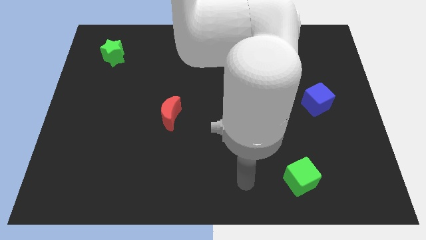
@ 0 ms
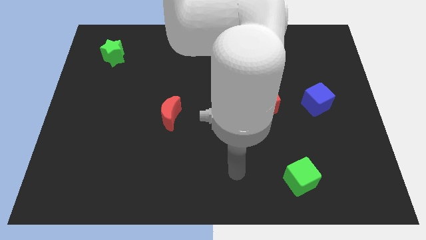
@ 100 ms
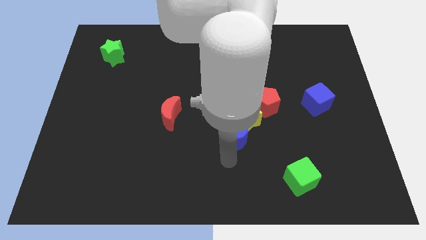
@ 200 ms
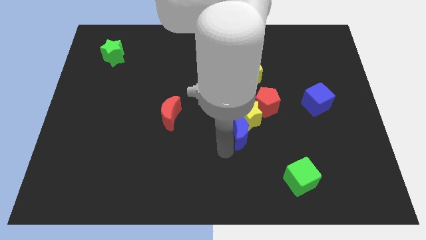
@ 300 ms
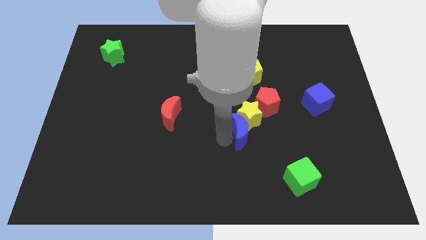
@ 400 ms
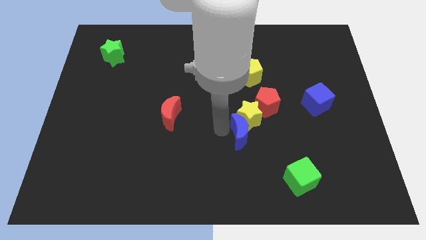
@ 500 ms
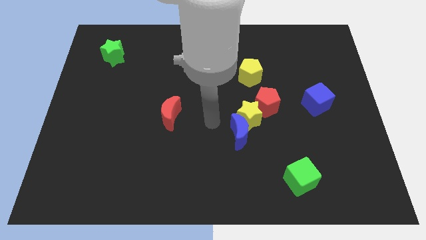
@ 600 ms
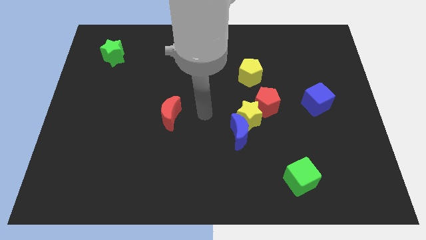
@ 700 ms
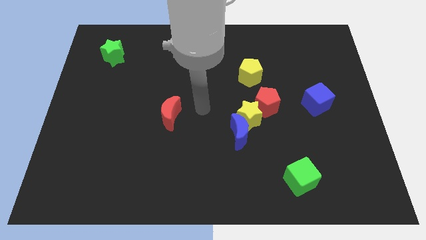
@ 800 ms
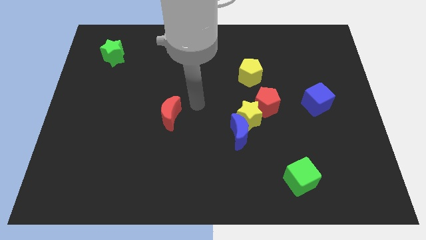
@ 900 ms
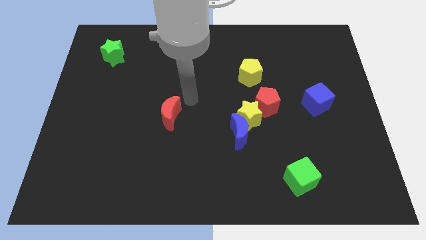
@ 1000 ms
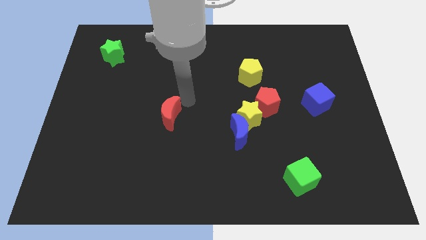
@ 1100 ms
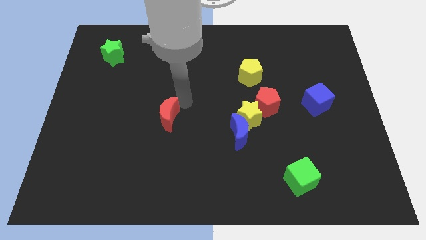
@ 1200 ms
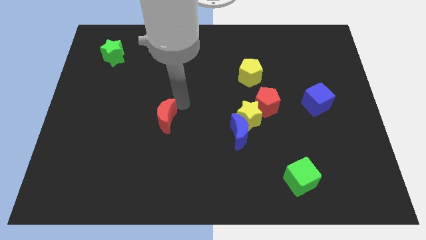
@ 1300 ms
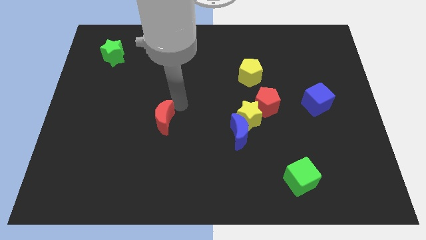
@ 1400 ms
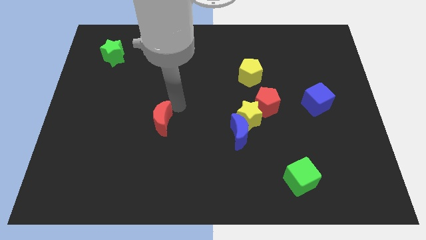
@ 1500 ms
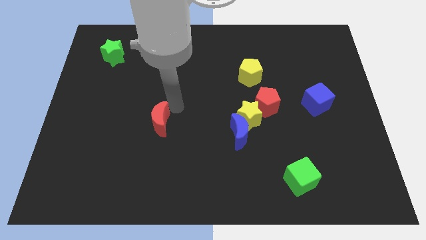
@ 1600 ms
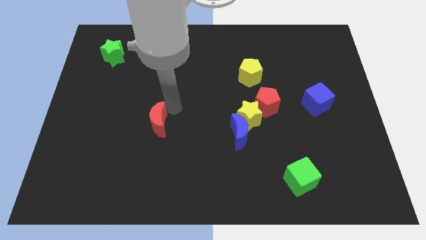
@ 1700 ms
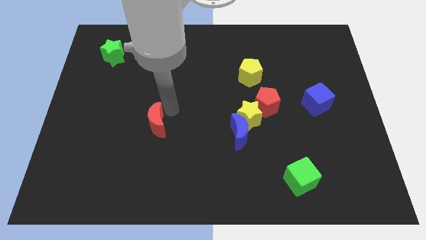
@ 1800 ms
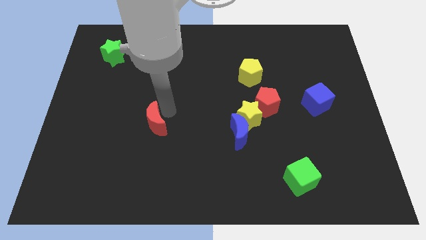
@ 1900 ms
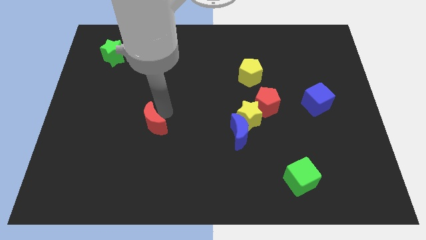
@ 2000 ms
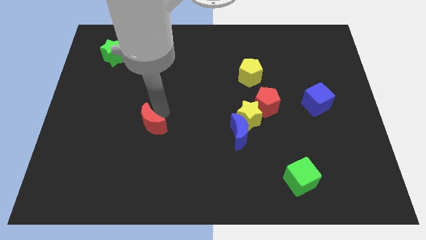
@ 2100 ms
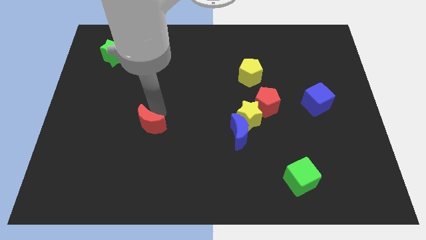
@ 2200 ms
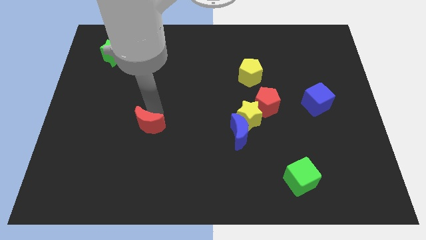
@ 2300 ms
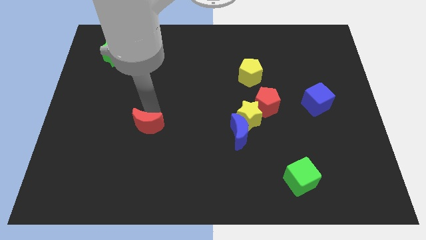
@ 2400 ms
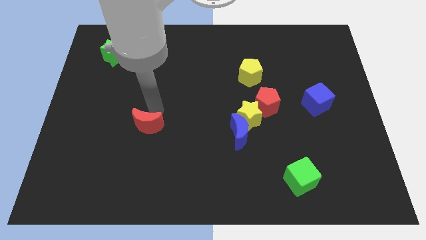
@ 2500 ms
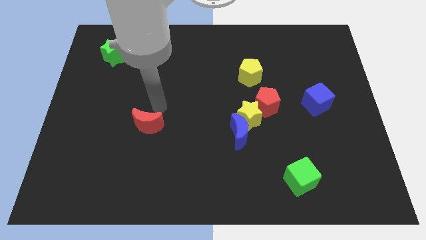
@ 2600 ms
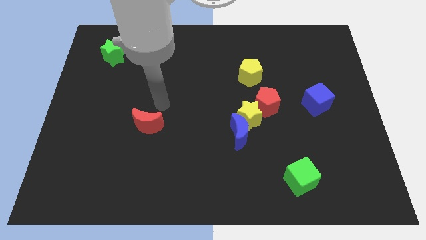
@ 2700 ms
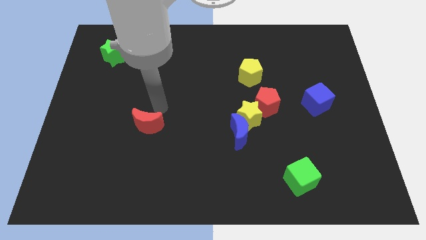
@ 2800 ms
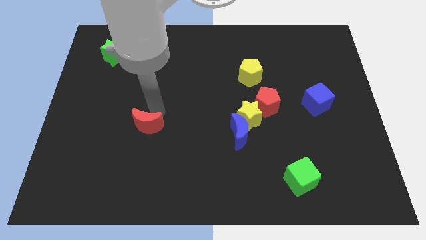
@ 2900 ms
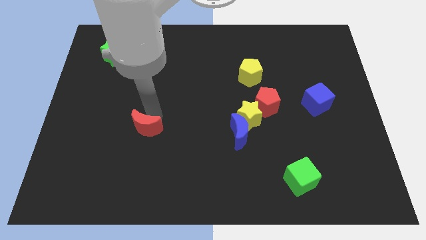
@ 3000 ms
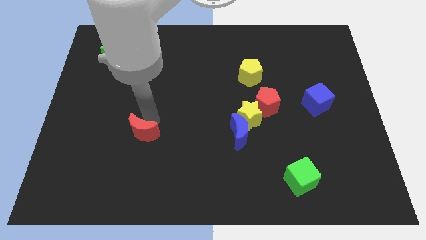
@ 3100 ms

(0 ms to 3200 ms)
slide the red moon diagonally down and to the left a little bit

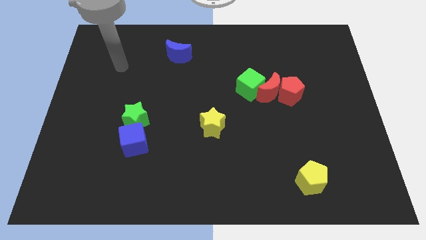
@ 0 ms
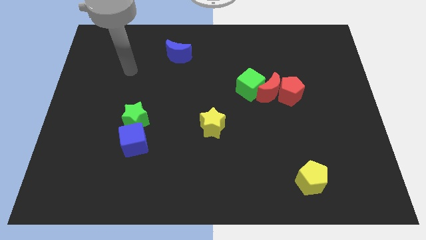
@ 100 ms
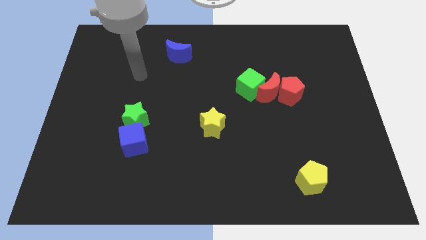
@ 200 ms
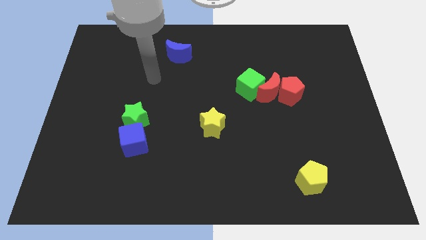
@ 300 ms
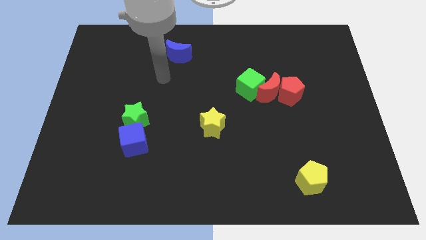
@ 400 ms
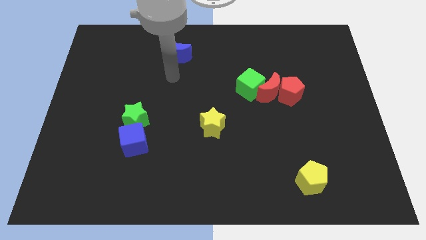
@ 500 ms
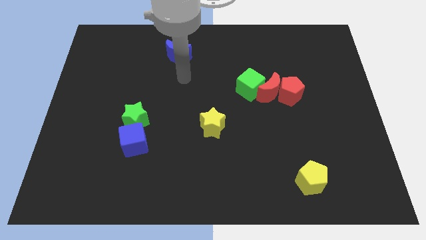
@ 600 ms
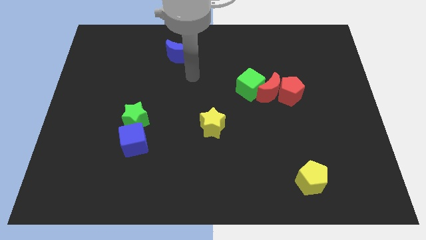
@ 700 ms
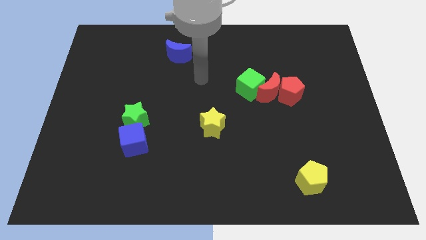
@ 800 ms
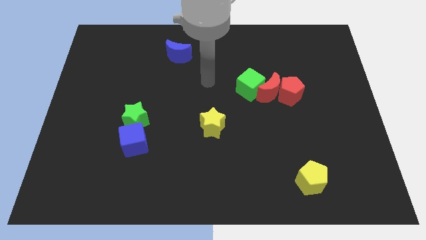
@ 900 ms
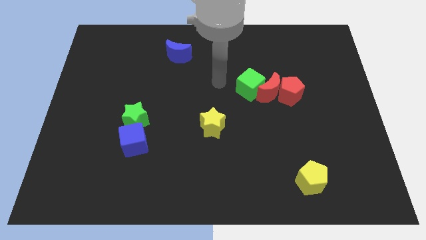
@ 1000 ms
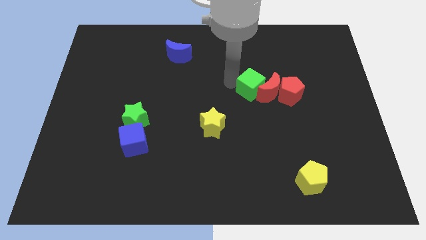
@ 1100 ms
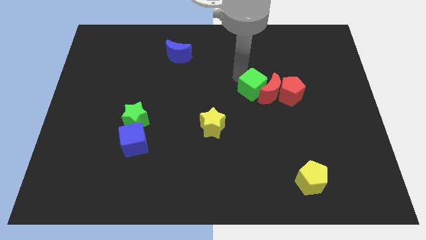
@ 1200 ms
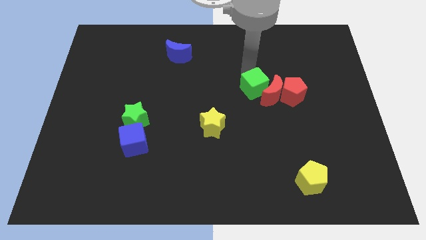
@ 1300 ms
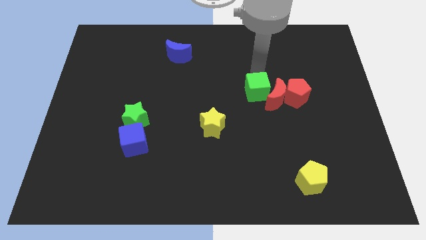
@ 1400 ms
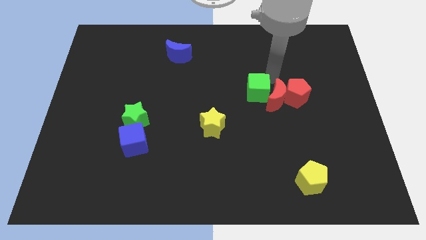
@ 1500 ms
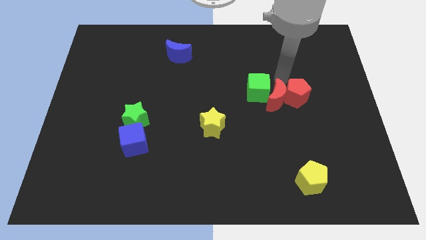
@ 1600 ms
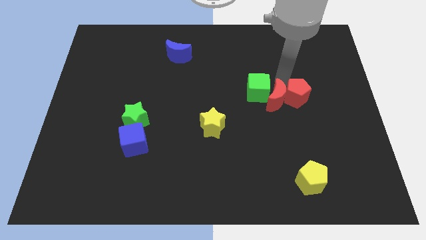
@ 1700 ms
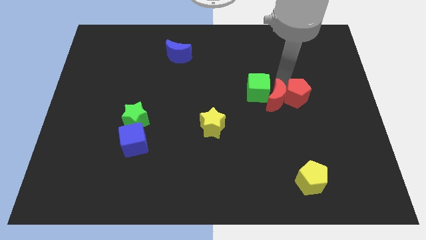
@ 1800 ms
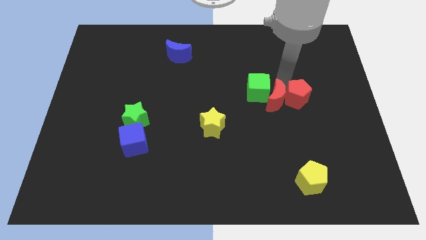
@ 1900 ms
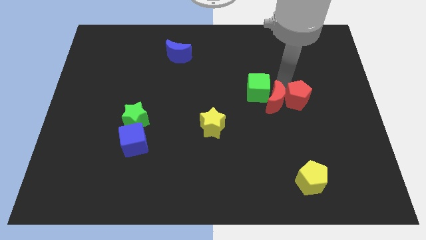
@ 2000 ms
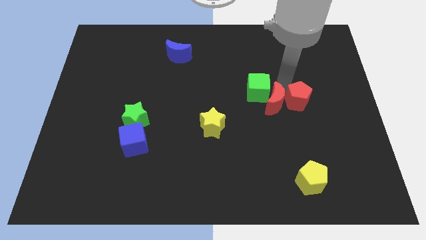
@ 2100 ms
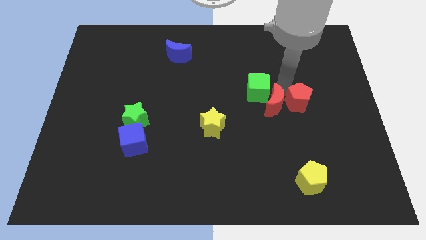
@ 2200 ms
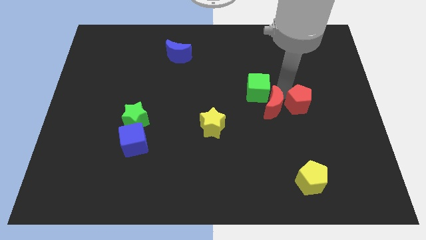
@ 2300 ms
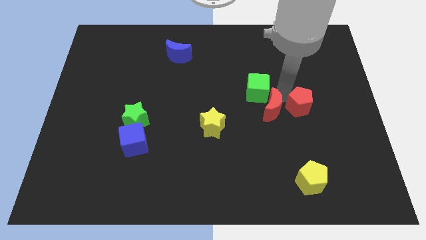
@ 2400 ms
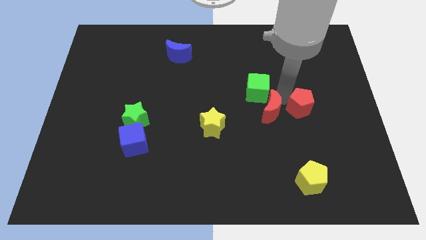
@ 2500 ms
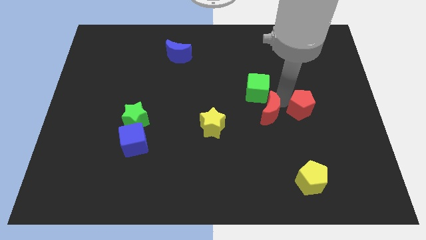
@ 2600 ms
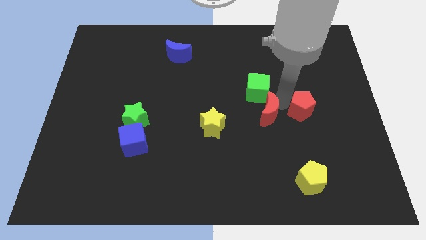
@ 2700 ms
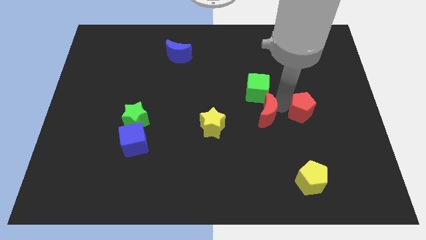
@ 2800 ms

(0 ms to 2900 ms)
push the red moon down a bit

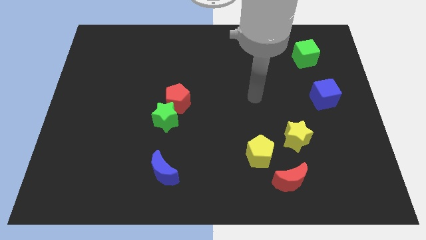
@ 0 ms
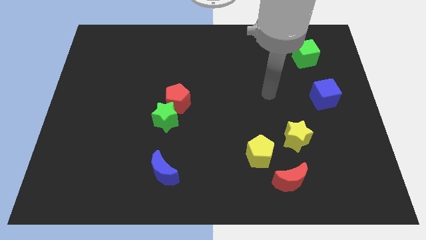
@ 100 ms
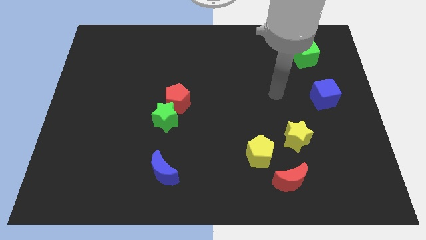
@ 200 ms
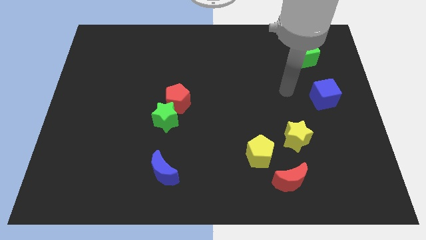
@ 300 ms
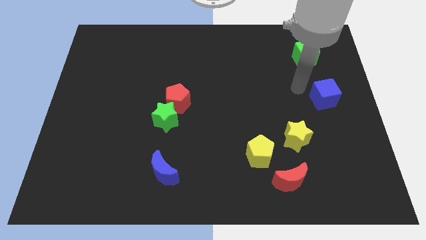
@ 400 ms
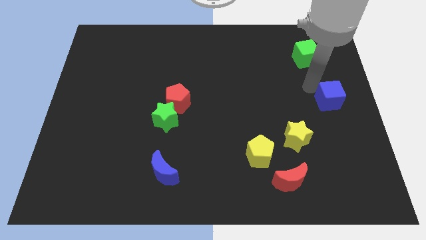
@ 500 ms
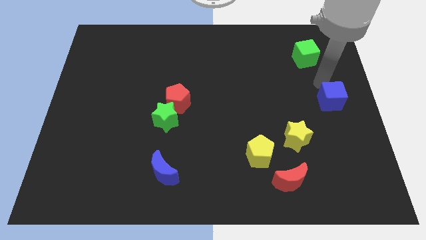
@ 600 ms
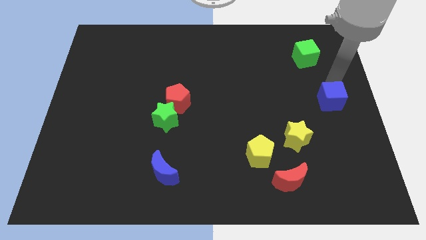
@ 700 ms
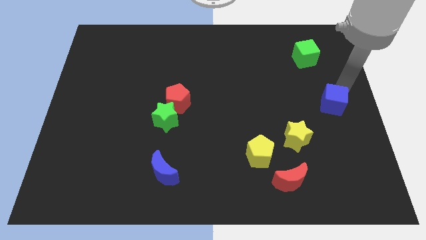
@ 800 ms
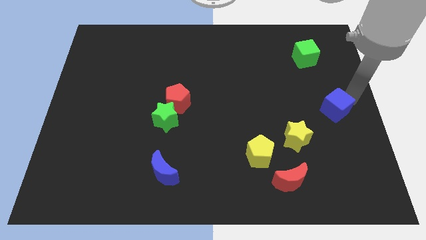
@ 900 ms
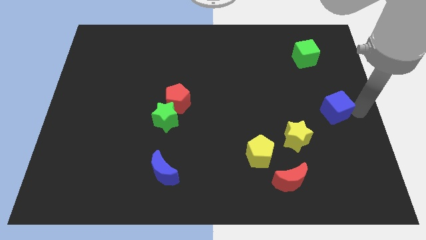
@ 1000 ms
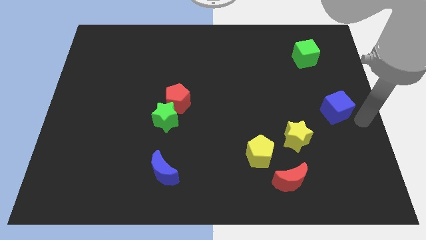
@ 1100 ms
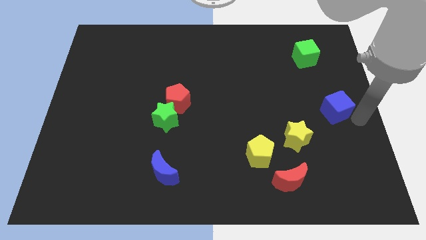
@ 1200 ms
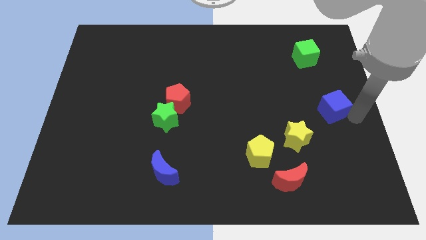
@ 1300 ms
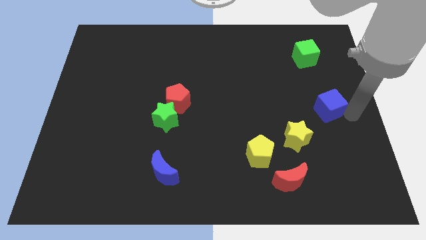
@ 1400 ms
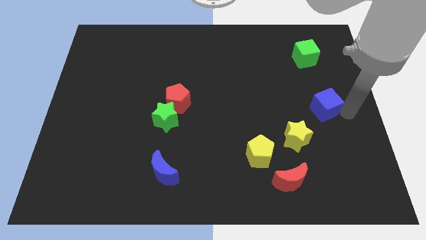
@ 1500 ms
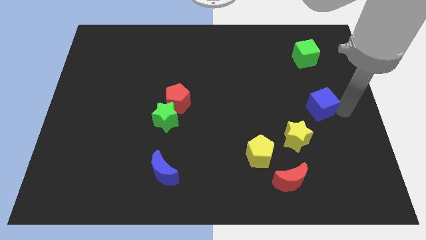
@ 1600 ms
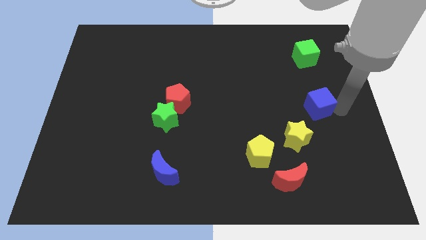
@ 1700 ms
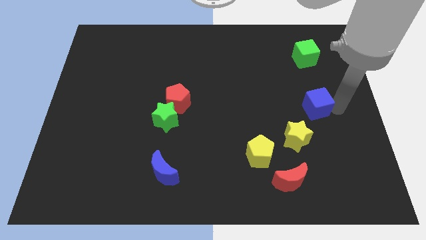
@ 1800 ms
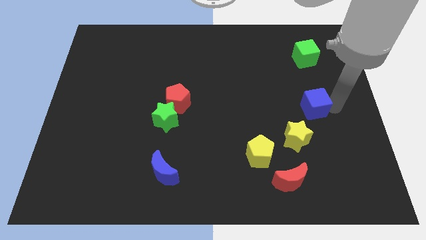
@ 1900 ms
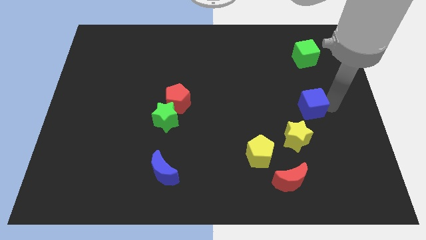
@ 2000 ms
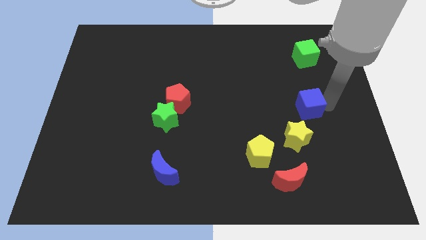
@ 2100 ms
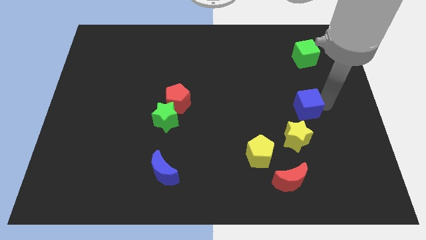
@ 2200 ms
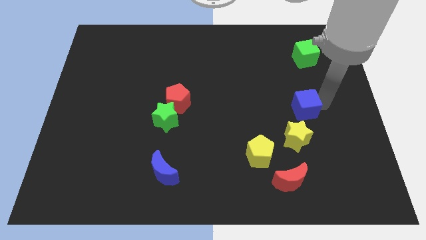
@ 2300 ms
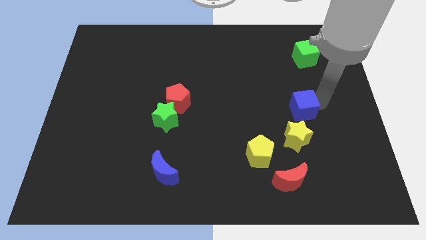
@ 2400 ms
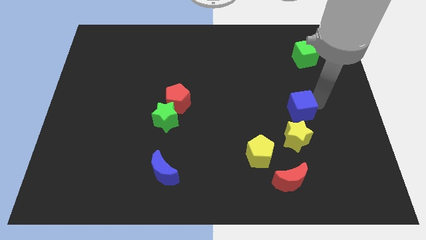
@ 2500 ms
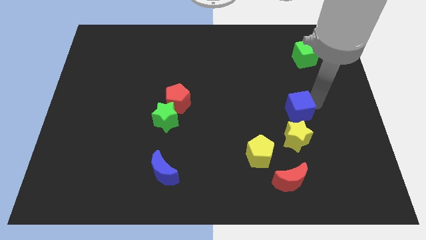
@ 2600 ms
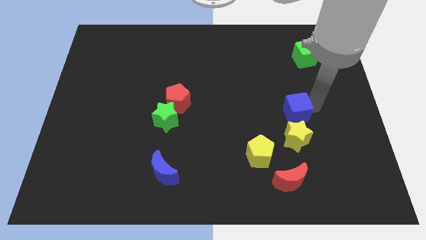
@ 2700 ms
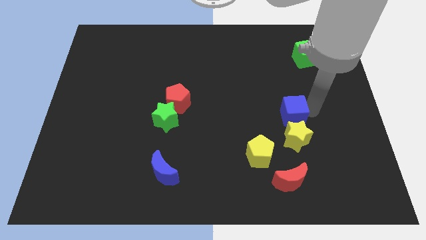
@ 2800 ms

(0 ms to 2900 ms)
slide the blue cube somewhat left
